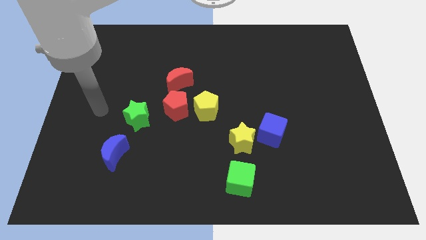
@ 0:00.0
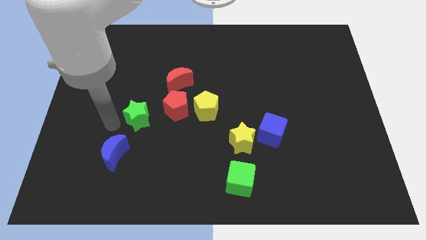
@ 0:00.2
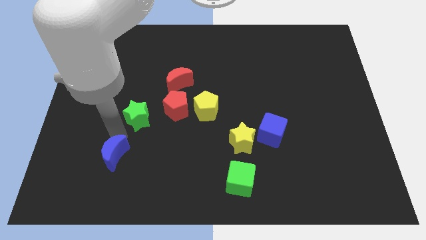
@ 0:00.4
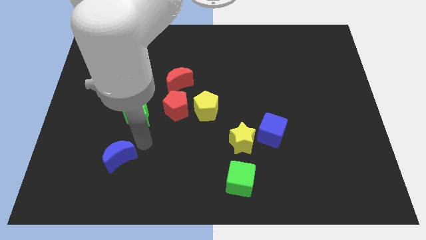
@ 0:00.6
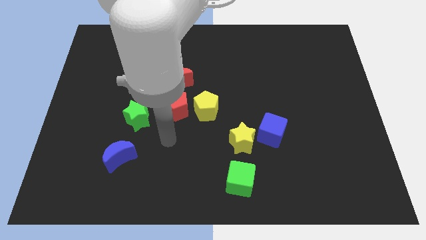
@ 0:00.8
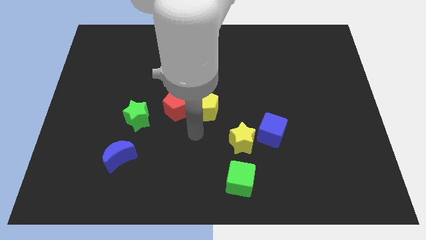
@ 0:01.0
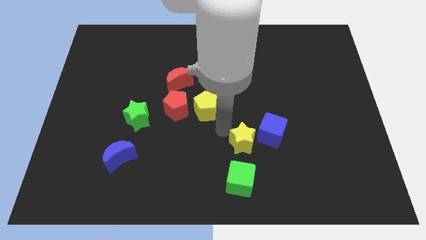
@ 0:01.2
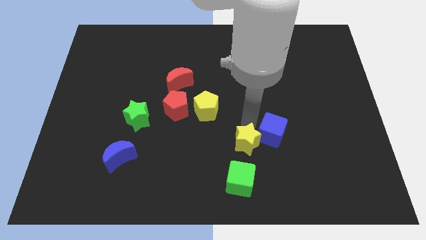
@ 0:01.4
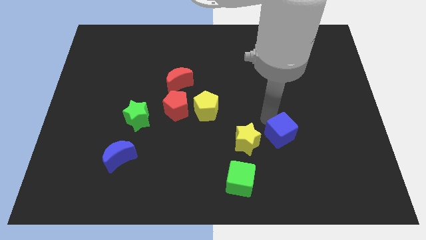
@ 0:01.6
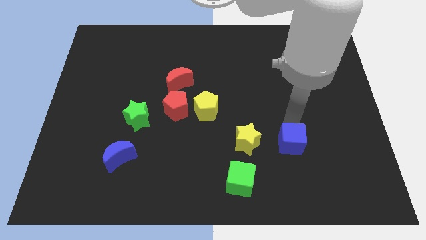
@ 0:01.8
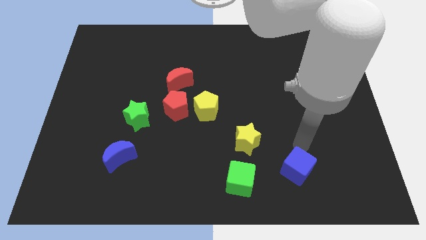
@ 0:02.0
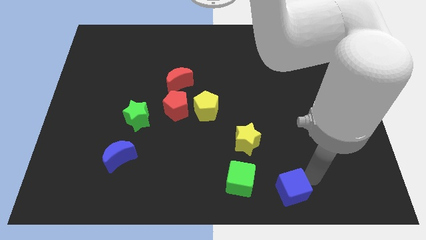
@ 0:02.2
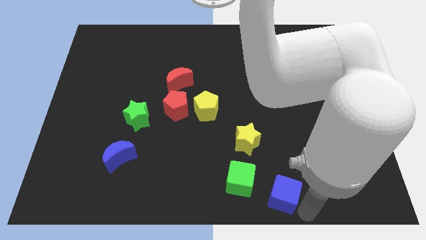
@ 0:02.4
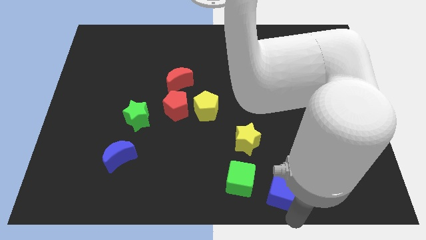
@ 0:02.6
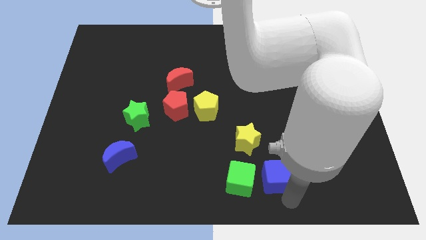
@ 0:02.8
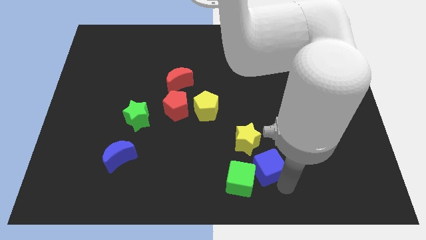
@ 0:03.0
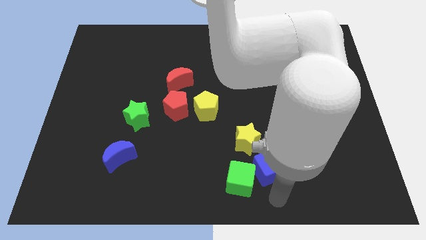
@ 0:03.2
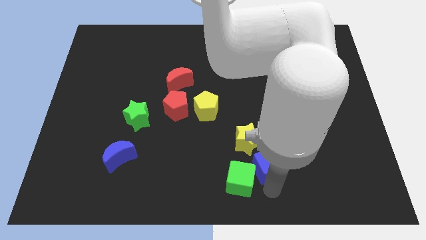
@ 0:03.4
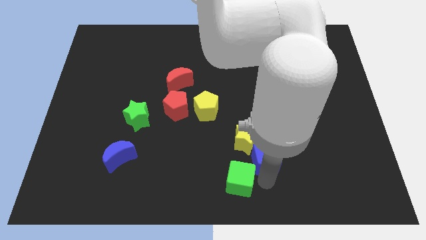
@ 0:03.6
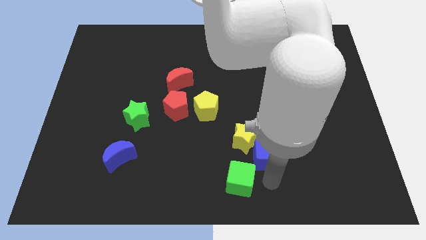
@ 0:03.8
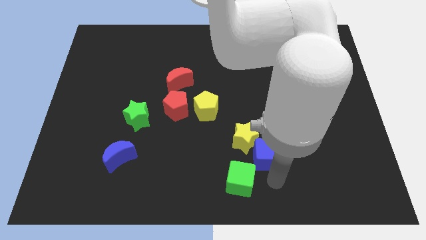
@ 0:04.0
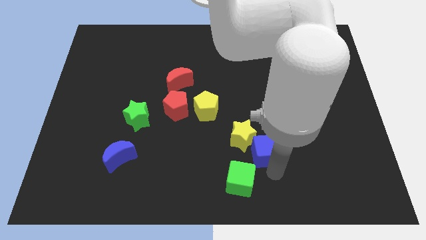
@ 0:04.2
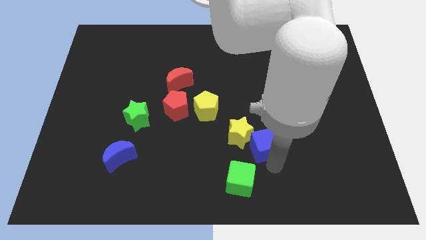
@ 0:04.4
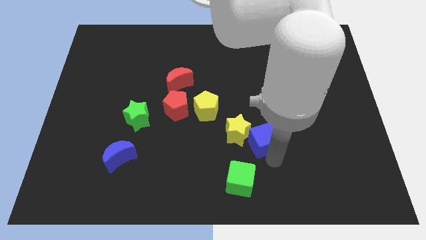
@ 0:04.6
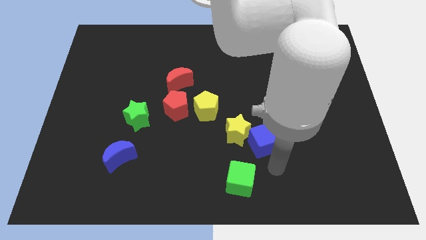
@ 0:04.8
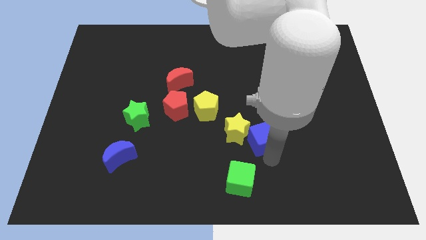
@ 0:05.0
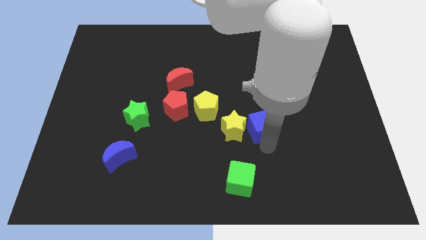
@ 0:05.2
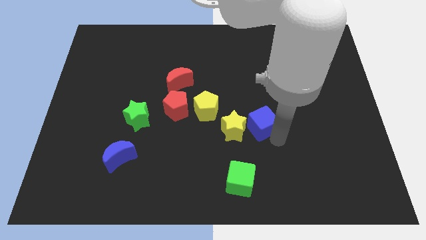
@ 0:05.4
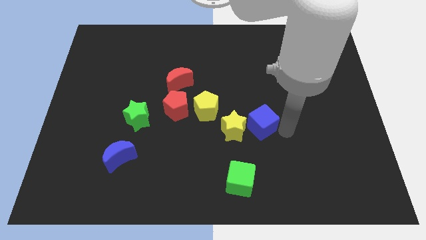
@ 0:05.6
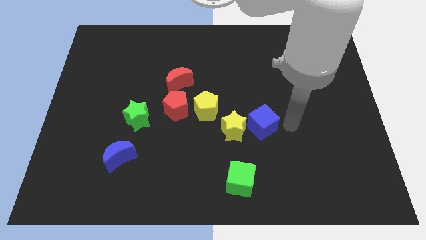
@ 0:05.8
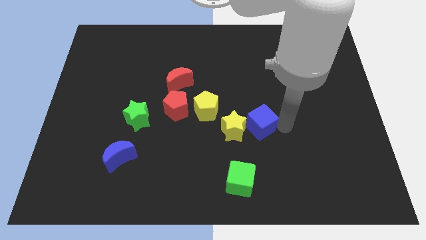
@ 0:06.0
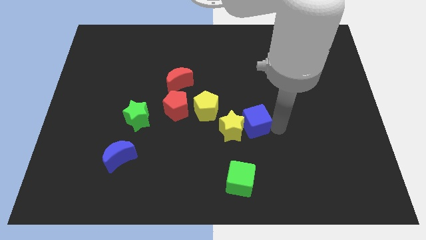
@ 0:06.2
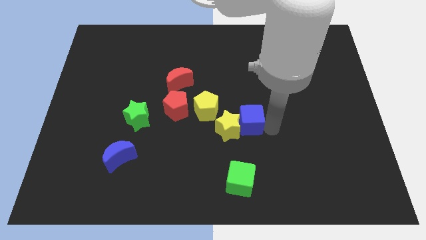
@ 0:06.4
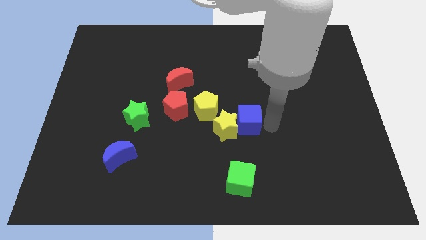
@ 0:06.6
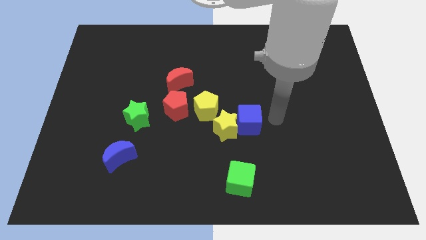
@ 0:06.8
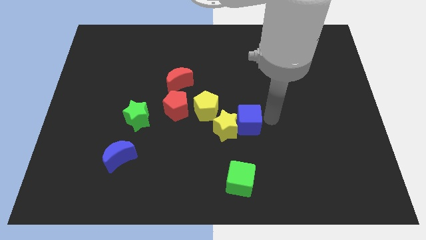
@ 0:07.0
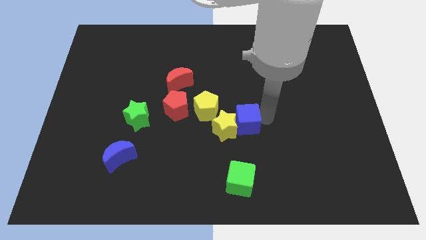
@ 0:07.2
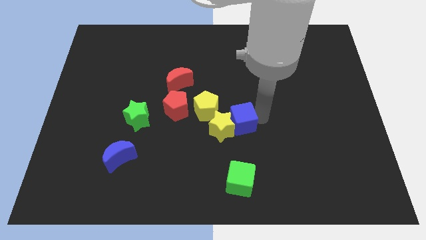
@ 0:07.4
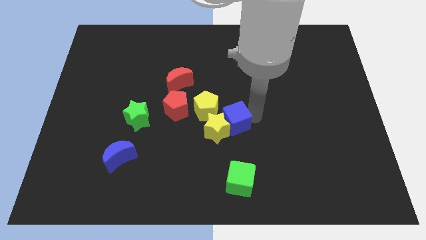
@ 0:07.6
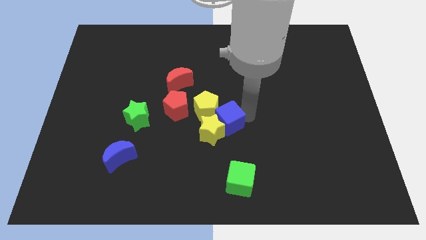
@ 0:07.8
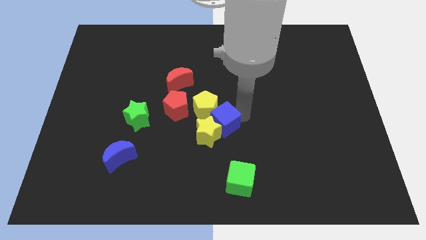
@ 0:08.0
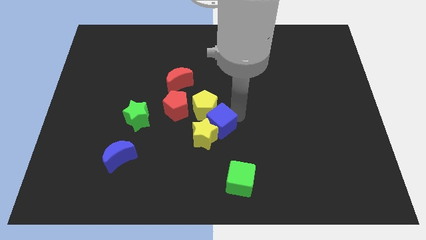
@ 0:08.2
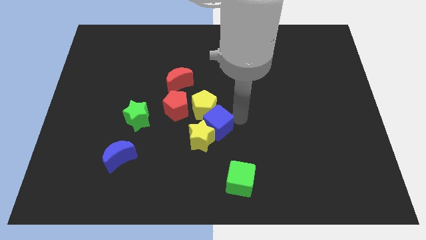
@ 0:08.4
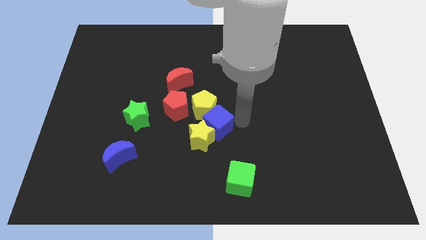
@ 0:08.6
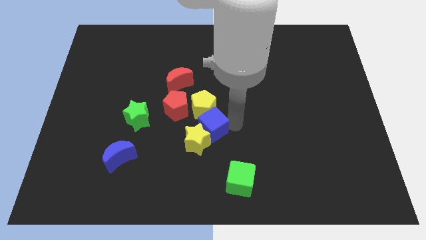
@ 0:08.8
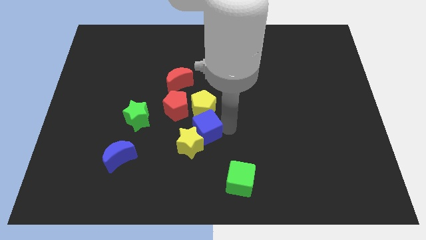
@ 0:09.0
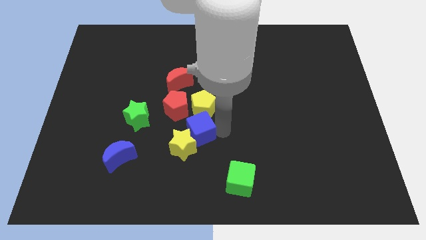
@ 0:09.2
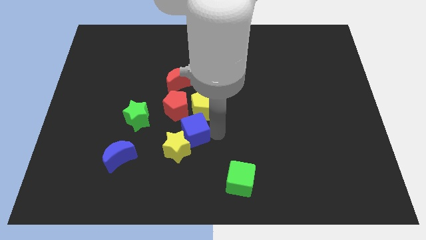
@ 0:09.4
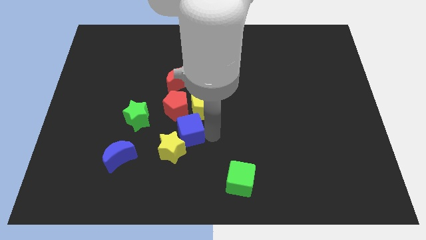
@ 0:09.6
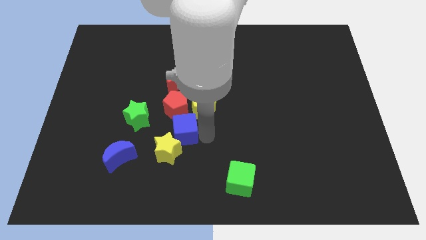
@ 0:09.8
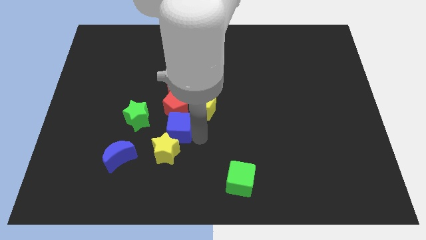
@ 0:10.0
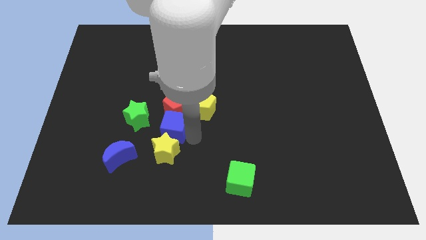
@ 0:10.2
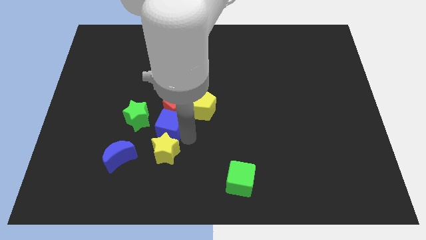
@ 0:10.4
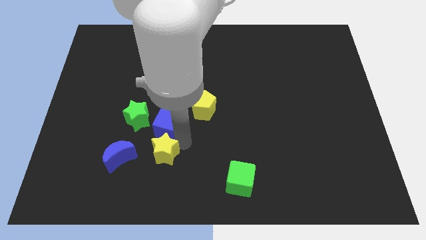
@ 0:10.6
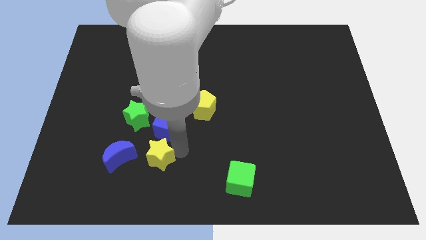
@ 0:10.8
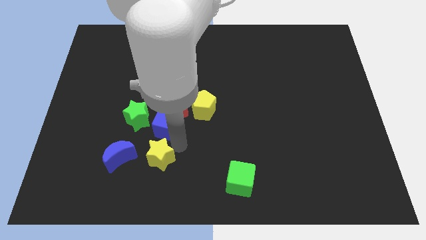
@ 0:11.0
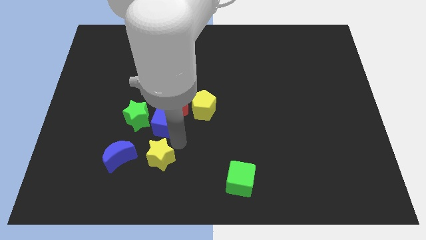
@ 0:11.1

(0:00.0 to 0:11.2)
push the blue cube just left of the yellow pentagon

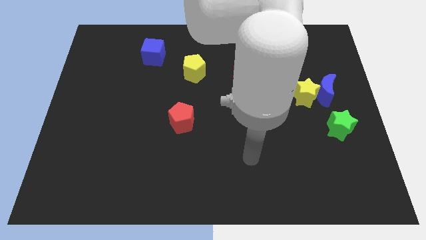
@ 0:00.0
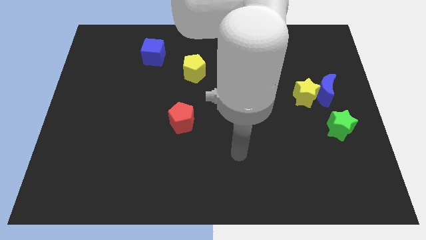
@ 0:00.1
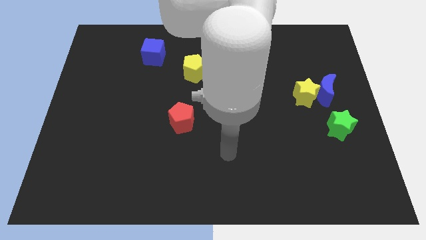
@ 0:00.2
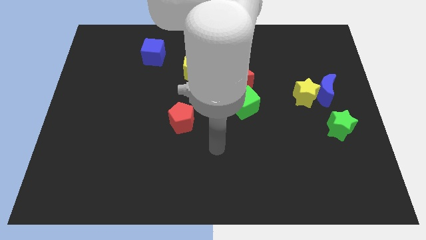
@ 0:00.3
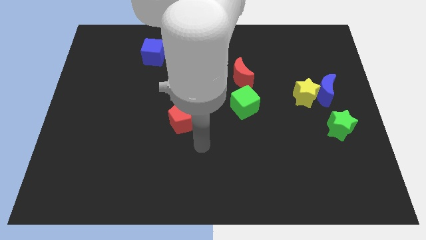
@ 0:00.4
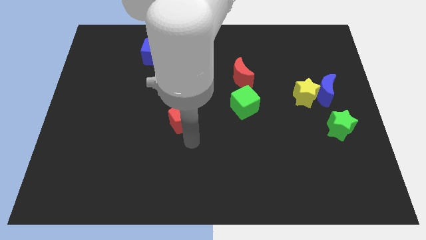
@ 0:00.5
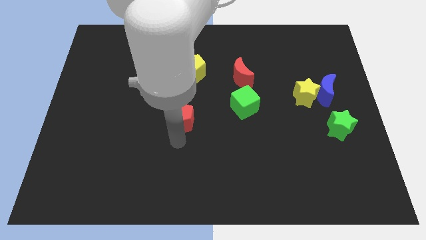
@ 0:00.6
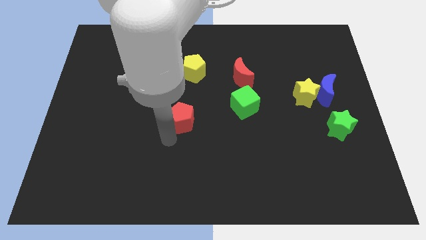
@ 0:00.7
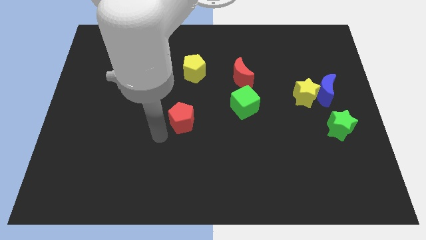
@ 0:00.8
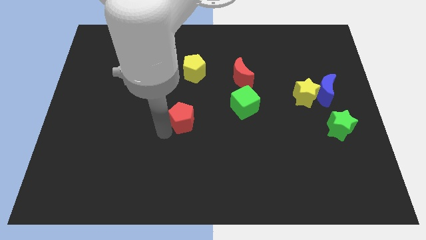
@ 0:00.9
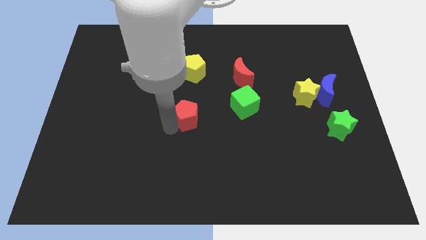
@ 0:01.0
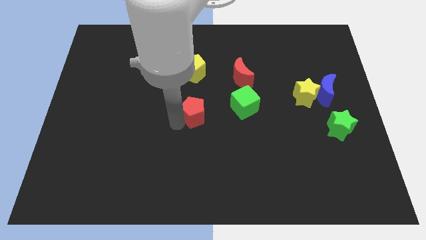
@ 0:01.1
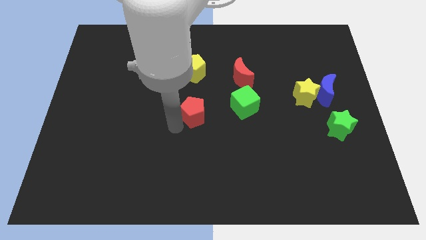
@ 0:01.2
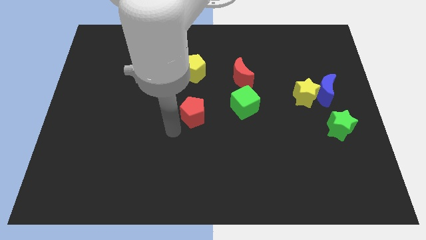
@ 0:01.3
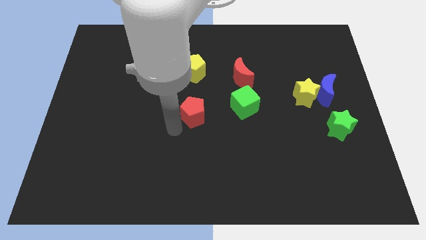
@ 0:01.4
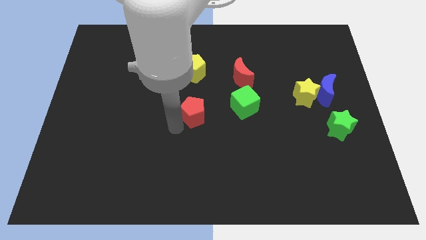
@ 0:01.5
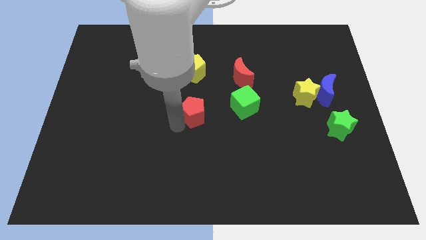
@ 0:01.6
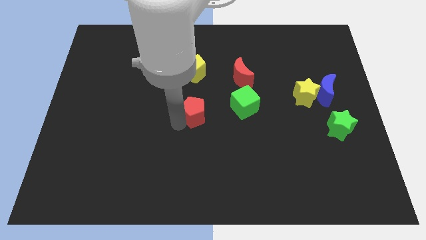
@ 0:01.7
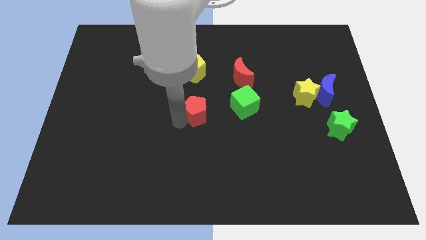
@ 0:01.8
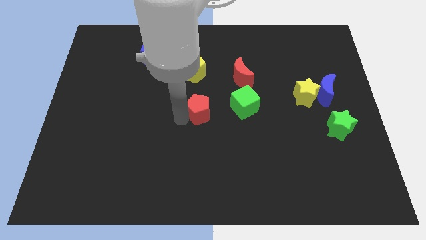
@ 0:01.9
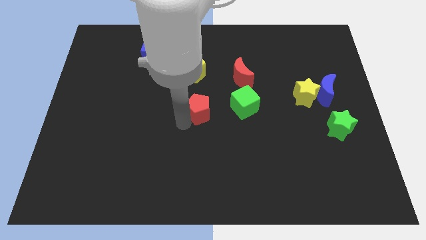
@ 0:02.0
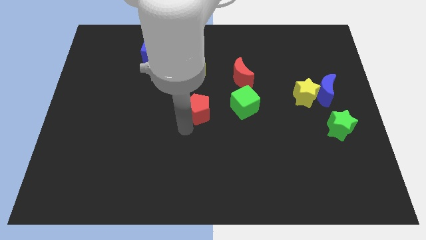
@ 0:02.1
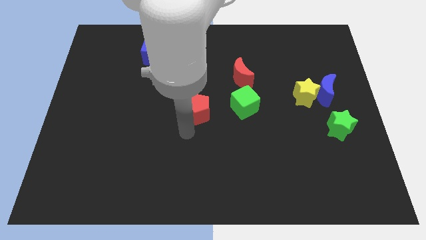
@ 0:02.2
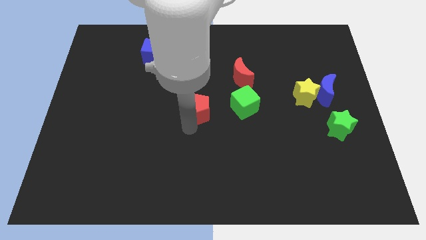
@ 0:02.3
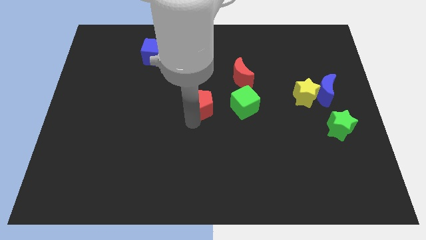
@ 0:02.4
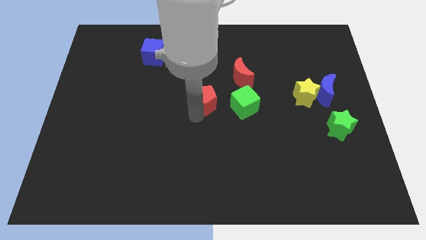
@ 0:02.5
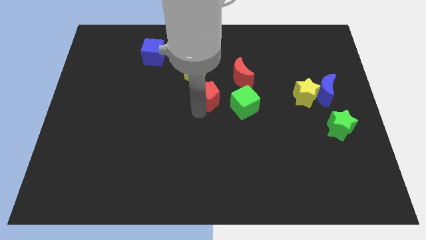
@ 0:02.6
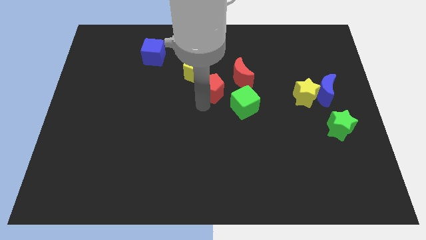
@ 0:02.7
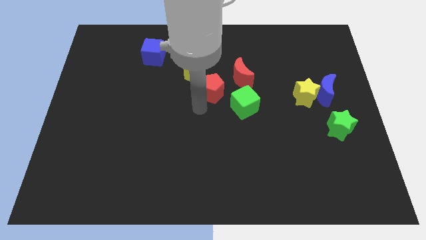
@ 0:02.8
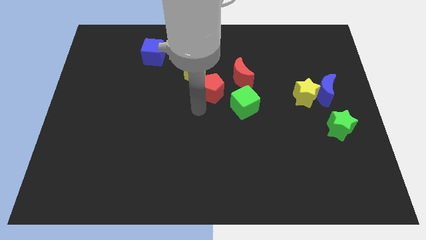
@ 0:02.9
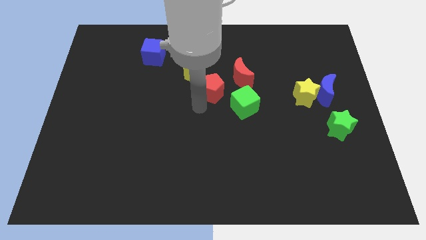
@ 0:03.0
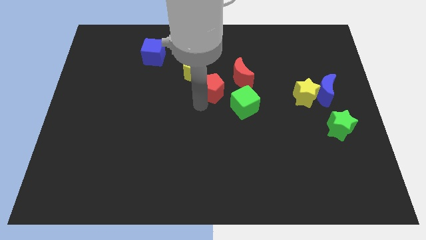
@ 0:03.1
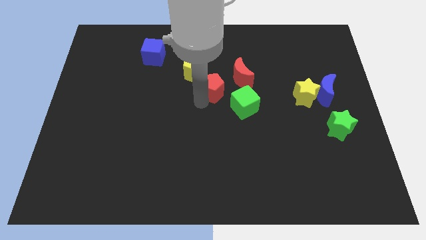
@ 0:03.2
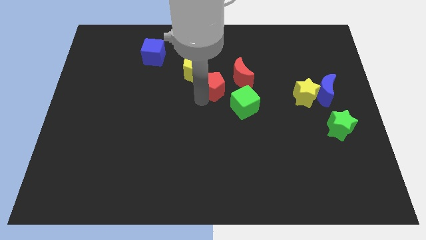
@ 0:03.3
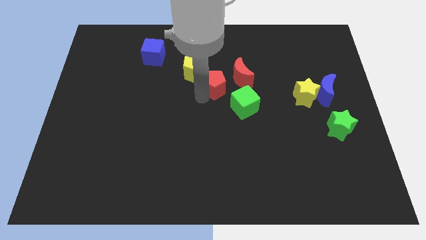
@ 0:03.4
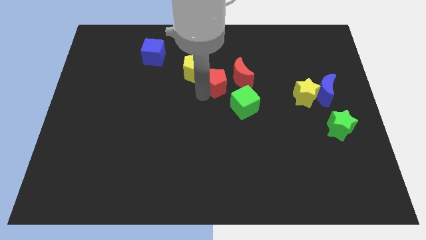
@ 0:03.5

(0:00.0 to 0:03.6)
push the red pentagon to the right side of the yellow pentagon
